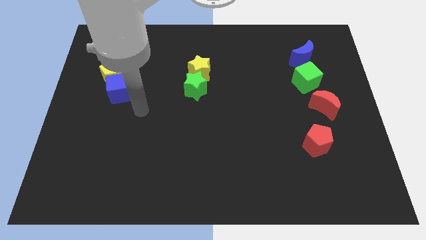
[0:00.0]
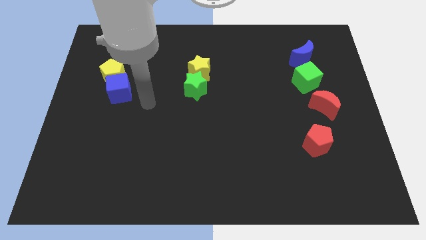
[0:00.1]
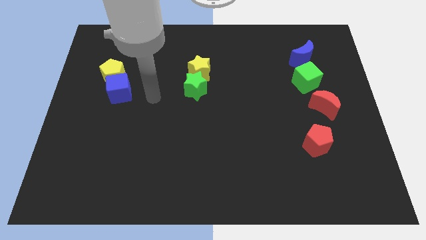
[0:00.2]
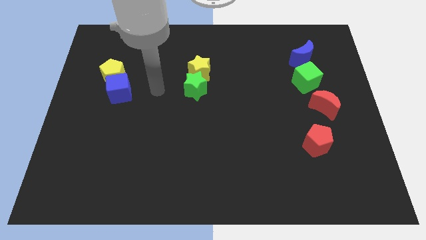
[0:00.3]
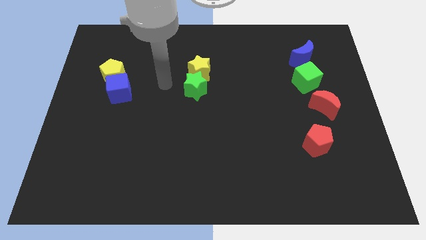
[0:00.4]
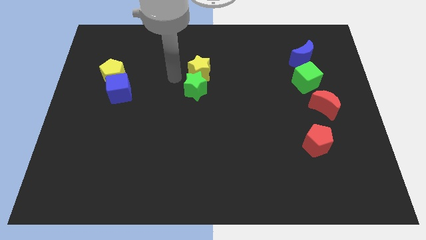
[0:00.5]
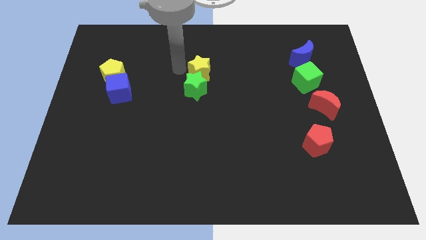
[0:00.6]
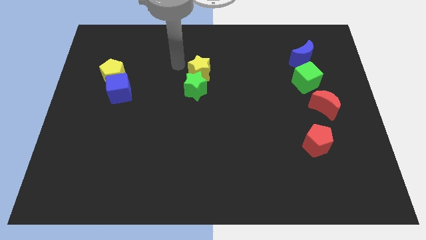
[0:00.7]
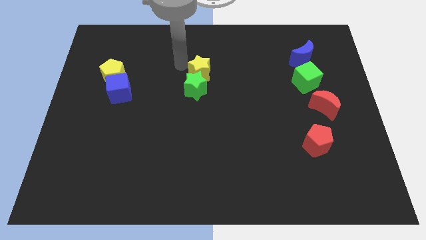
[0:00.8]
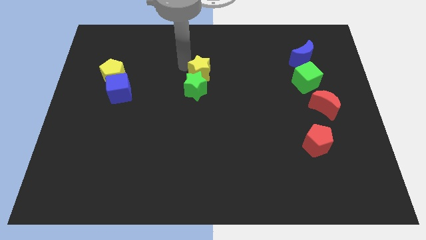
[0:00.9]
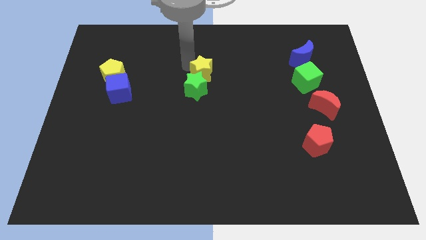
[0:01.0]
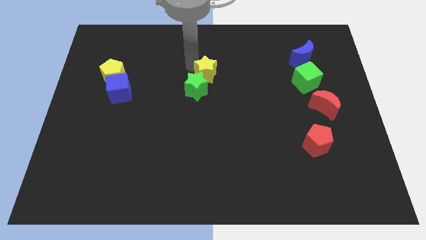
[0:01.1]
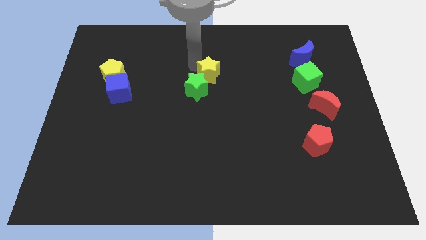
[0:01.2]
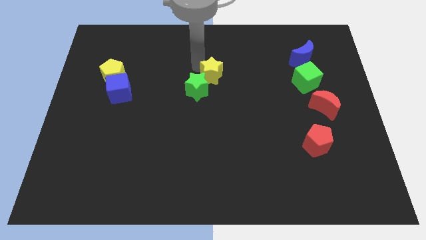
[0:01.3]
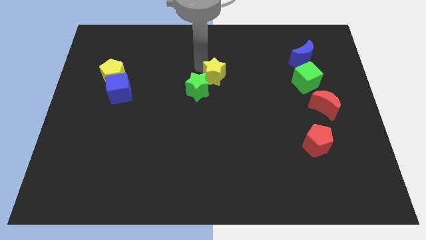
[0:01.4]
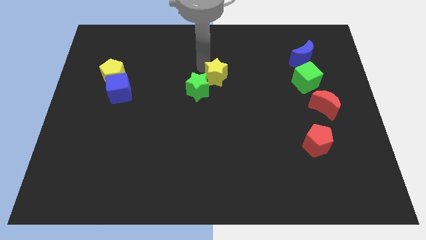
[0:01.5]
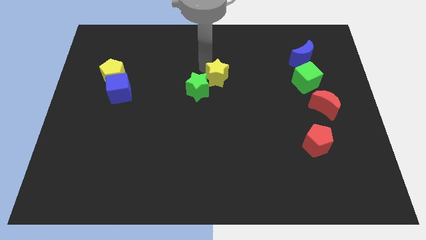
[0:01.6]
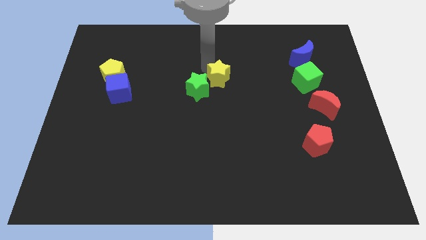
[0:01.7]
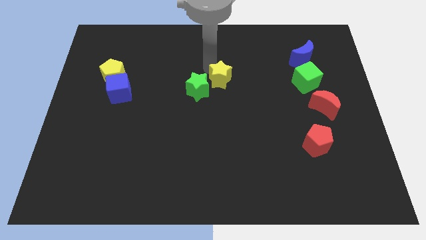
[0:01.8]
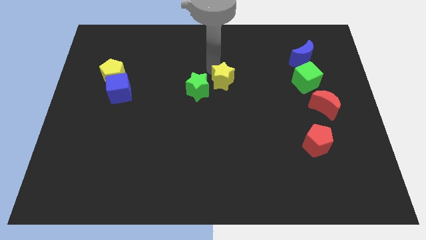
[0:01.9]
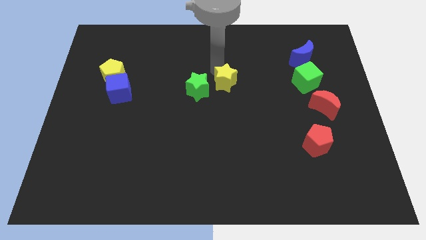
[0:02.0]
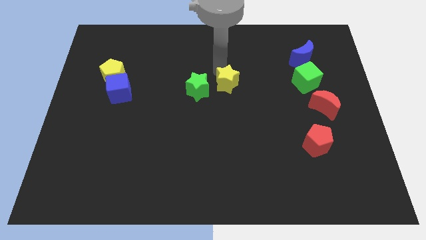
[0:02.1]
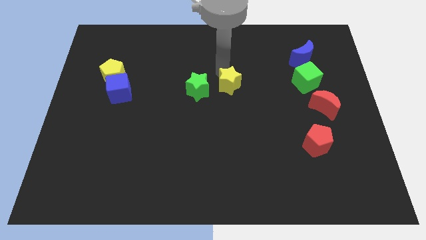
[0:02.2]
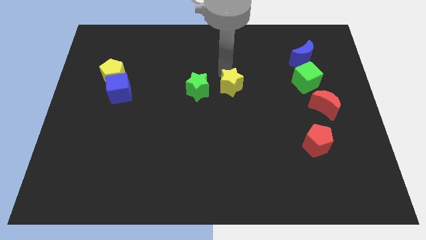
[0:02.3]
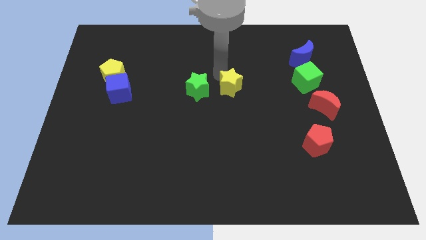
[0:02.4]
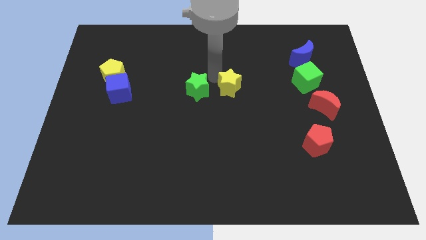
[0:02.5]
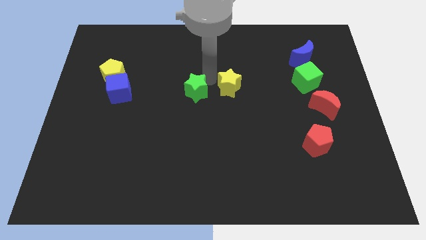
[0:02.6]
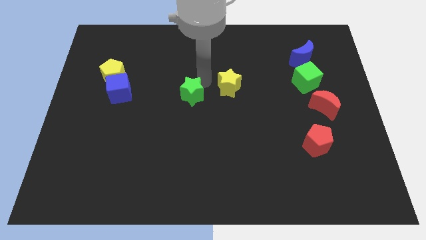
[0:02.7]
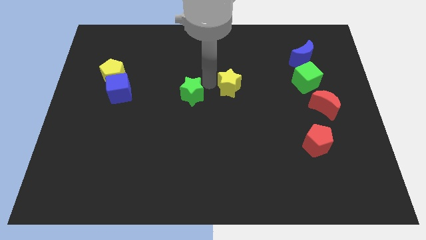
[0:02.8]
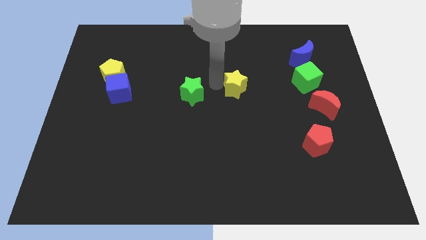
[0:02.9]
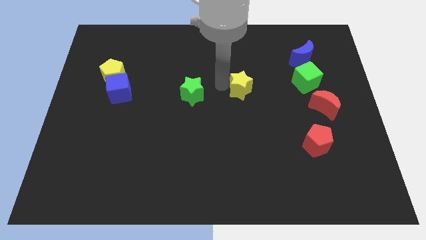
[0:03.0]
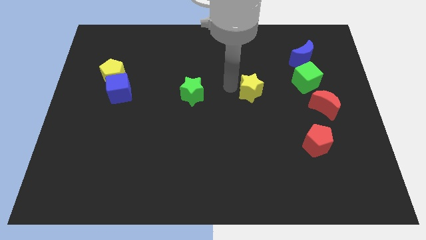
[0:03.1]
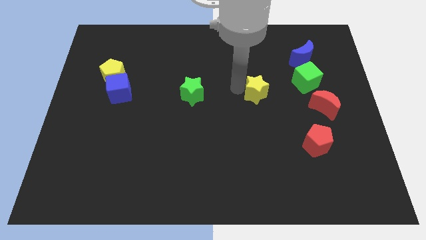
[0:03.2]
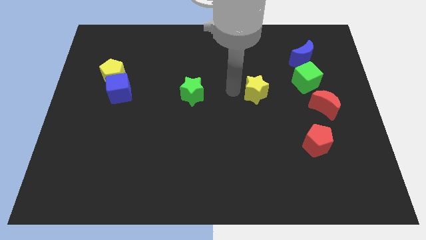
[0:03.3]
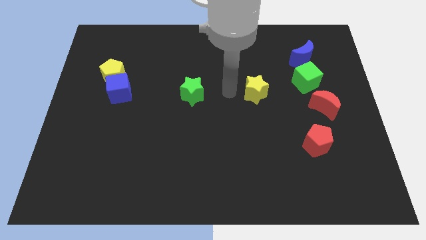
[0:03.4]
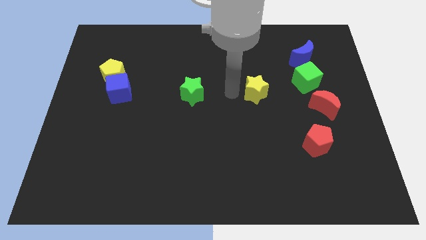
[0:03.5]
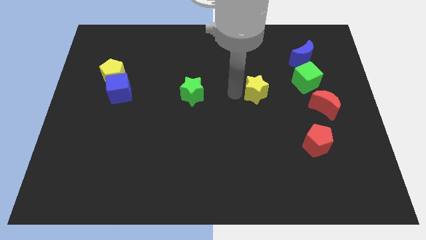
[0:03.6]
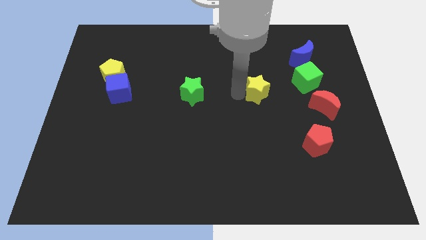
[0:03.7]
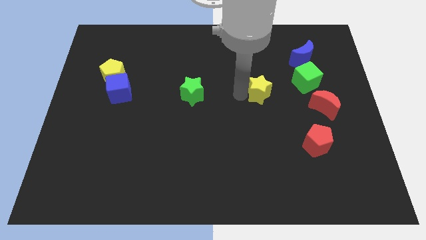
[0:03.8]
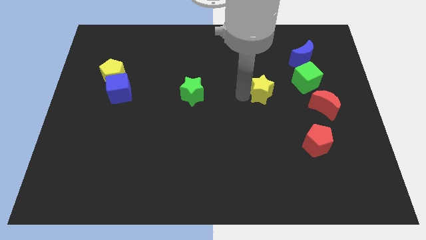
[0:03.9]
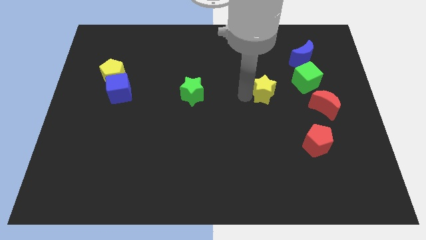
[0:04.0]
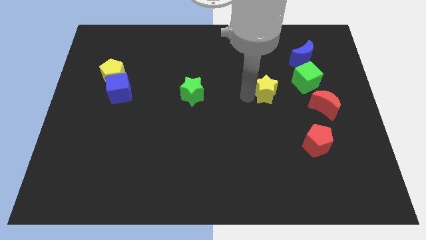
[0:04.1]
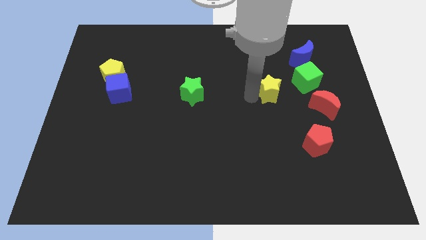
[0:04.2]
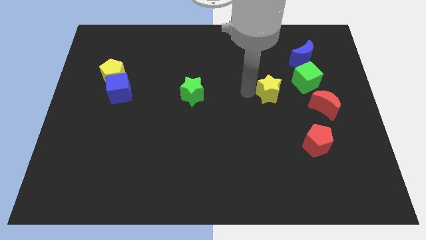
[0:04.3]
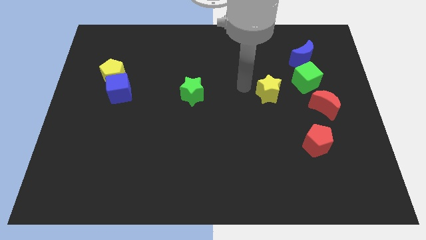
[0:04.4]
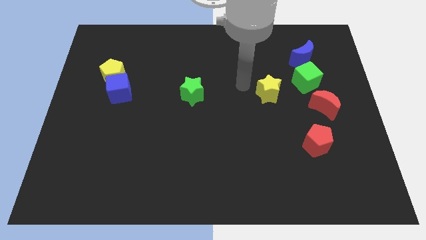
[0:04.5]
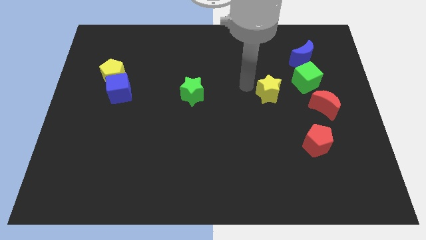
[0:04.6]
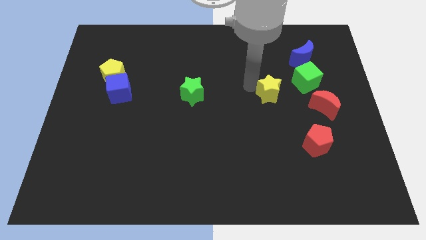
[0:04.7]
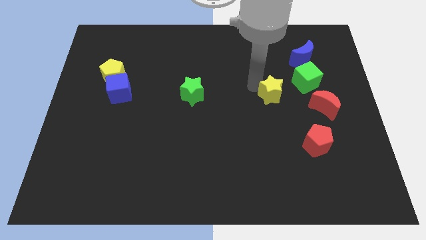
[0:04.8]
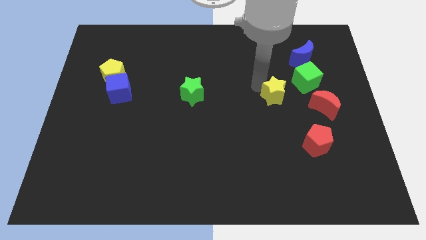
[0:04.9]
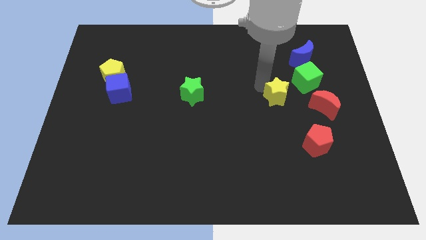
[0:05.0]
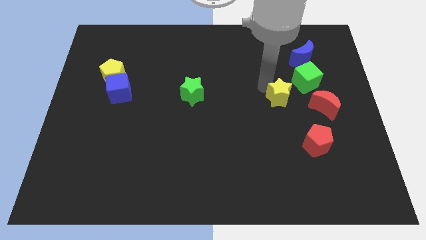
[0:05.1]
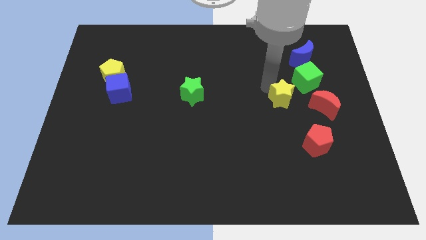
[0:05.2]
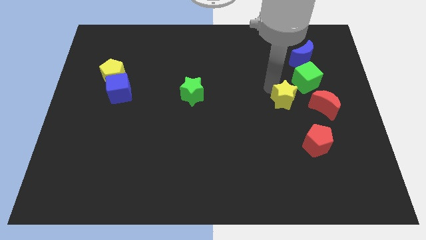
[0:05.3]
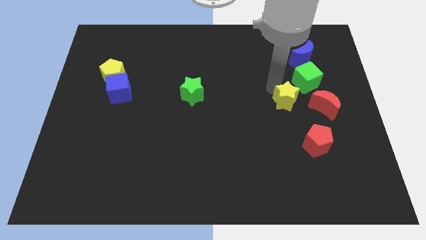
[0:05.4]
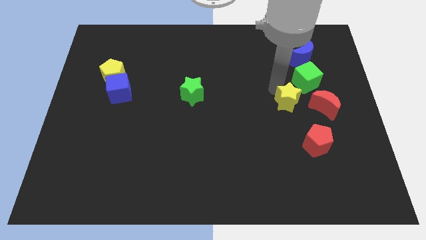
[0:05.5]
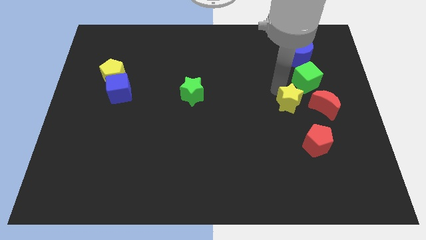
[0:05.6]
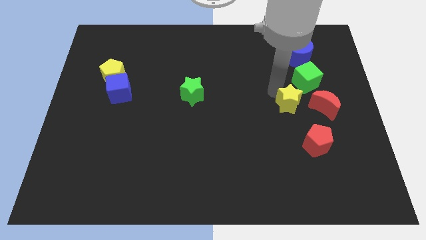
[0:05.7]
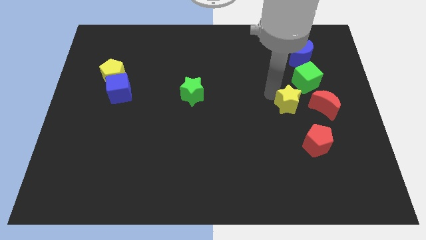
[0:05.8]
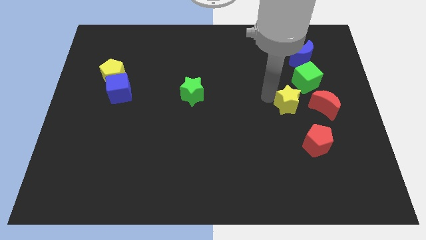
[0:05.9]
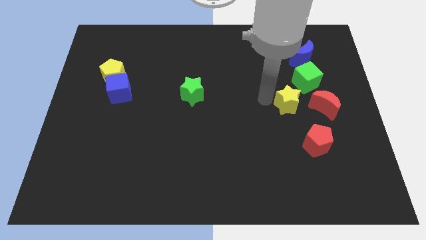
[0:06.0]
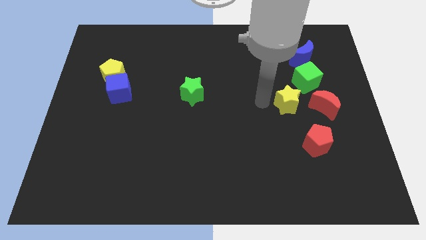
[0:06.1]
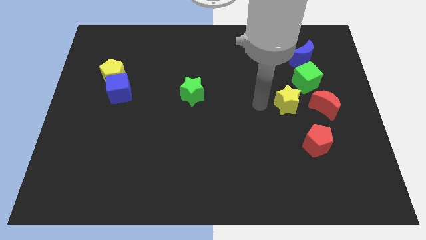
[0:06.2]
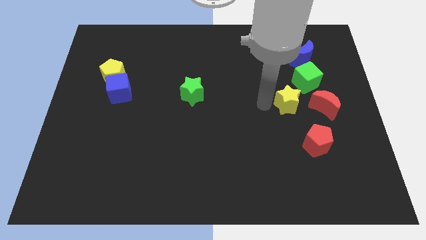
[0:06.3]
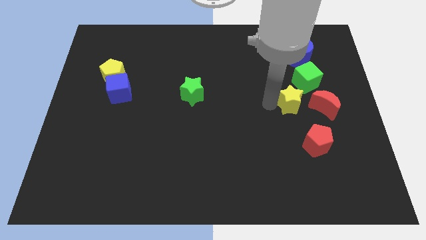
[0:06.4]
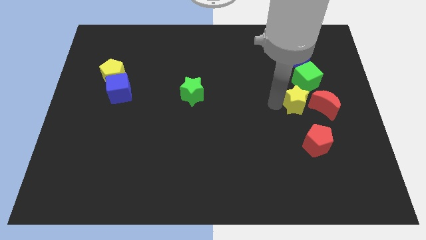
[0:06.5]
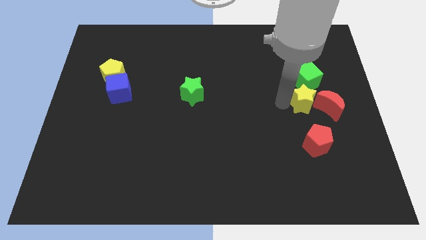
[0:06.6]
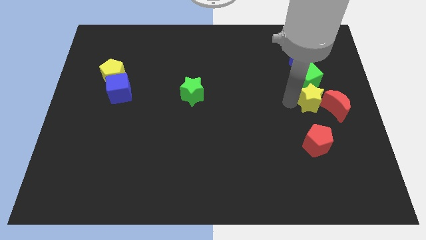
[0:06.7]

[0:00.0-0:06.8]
move the yellow star towards the red moon

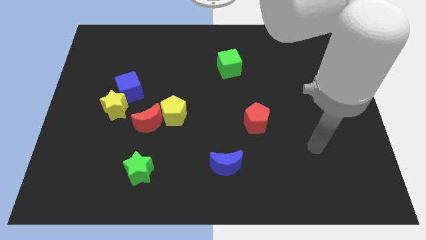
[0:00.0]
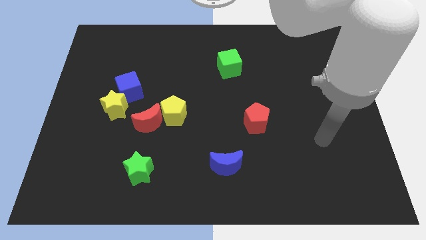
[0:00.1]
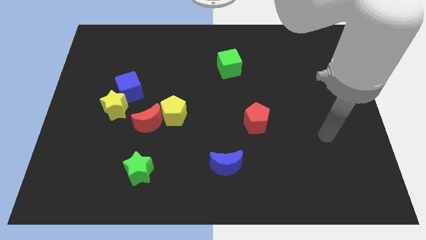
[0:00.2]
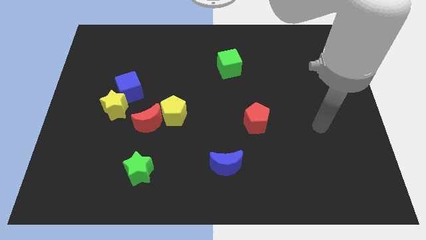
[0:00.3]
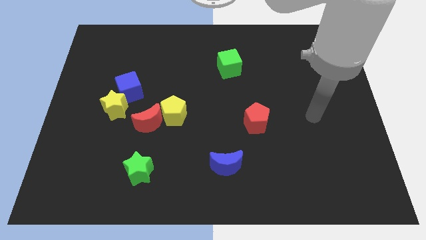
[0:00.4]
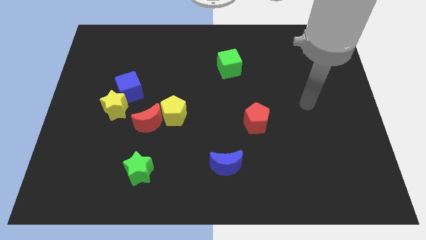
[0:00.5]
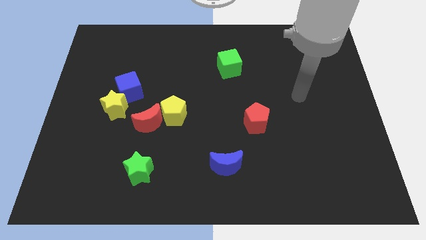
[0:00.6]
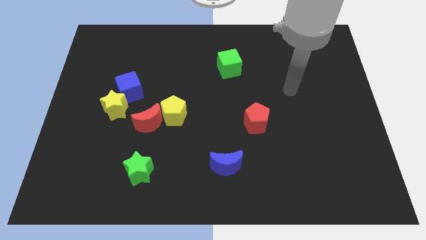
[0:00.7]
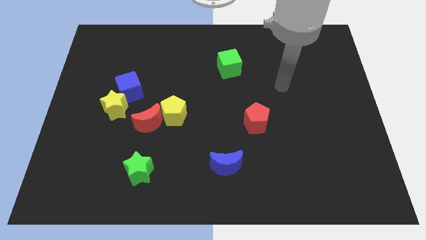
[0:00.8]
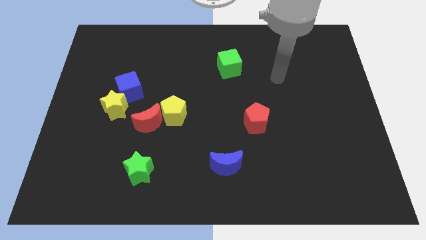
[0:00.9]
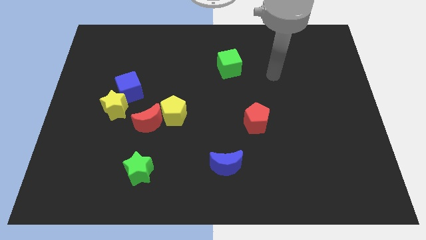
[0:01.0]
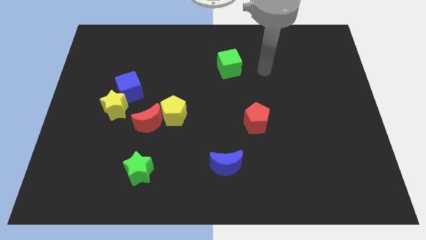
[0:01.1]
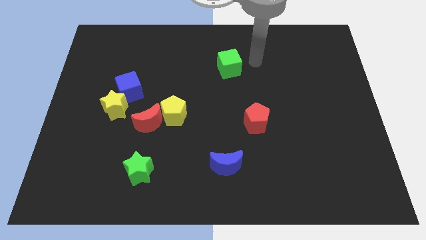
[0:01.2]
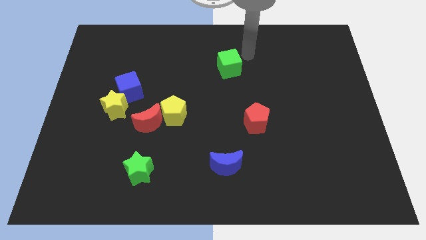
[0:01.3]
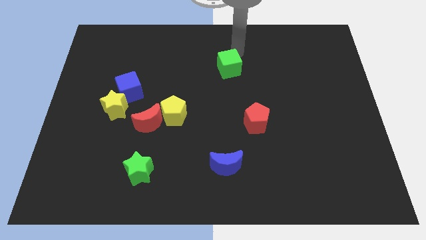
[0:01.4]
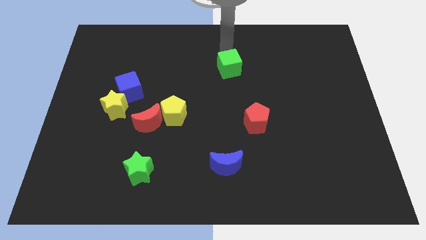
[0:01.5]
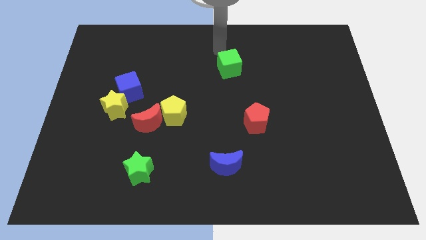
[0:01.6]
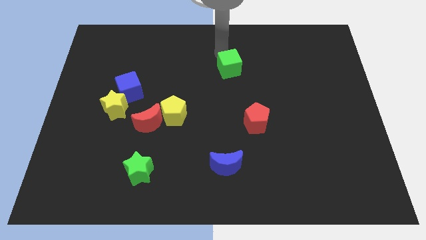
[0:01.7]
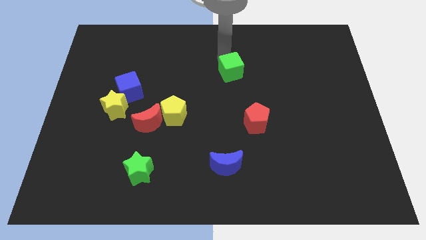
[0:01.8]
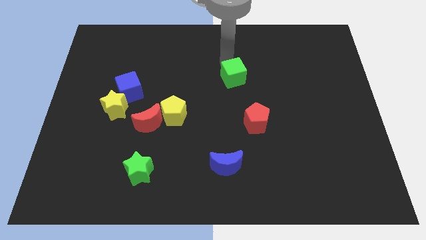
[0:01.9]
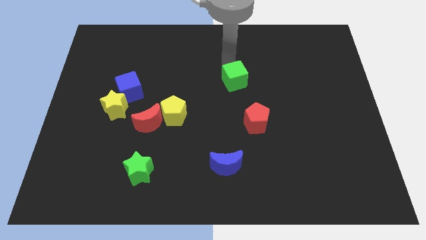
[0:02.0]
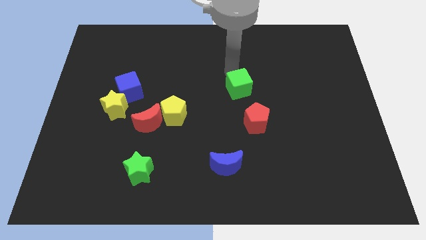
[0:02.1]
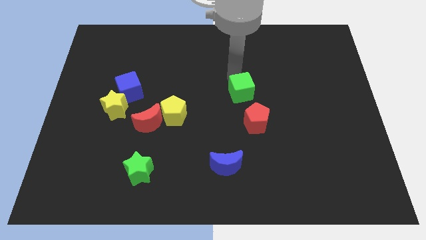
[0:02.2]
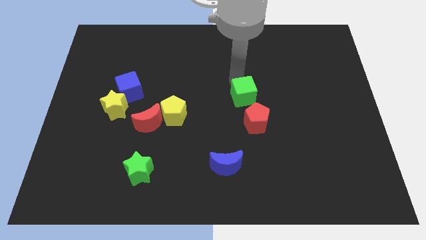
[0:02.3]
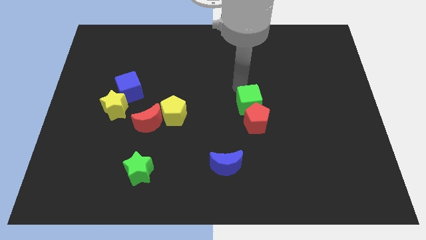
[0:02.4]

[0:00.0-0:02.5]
put the green cube next to the red pentagon
